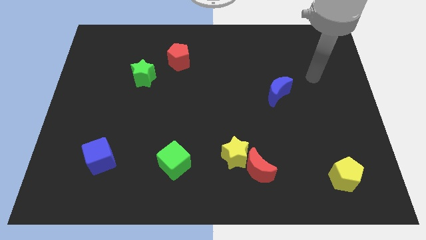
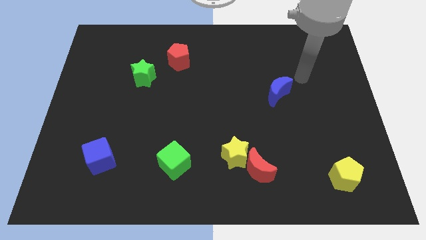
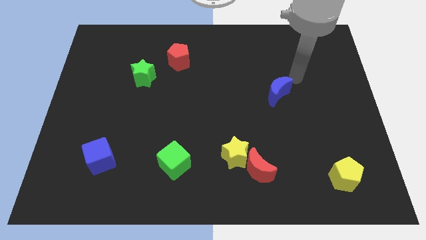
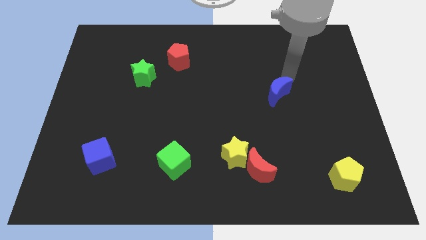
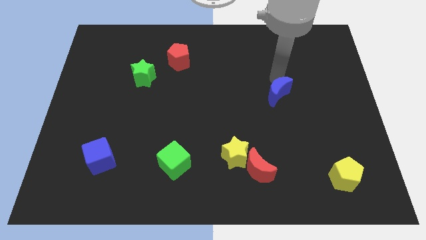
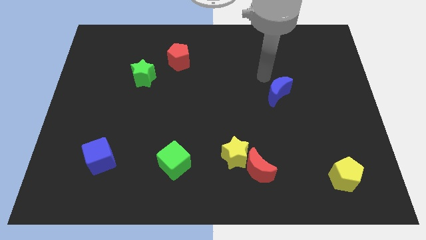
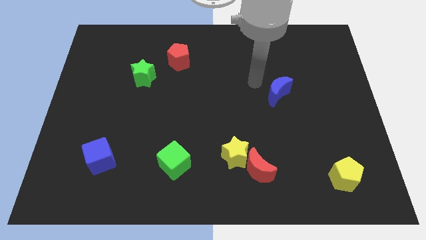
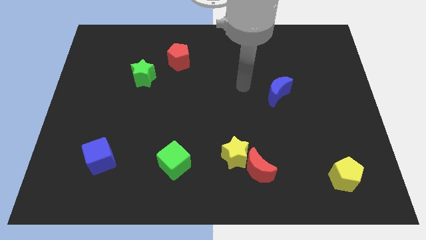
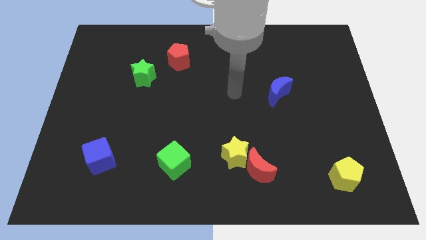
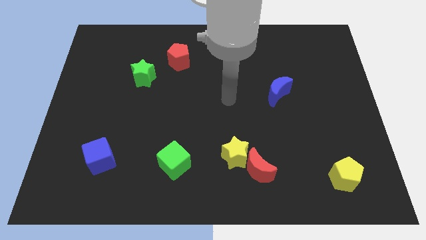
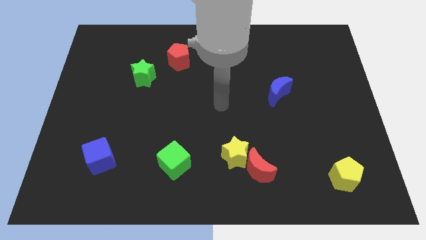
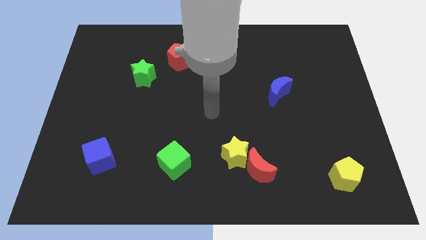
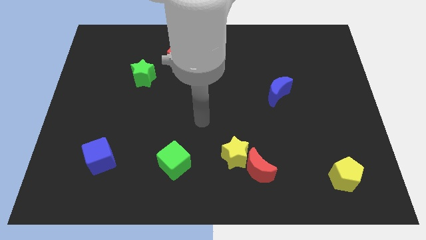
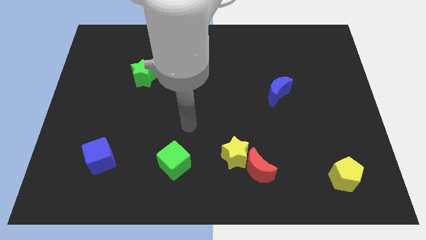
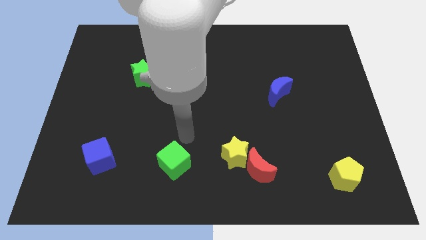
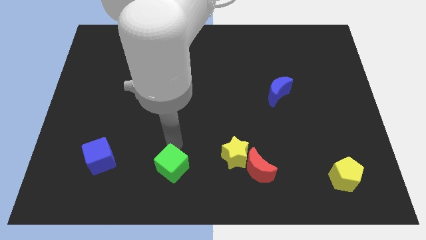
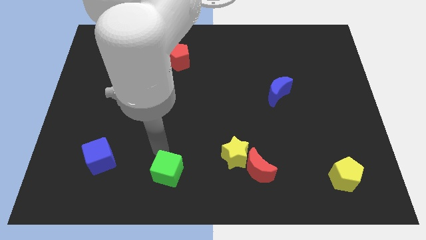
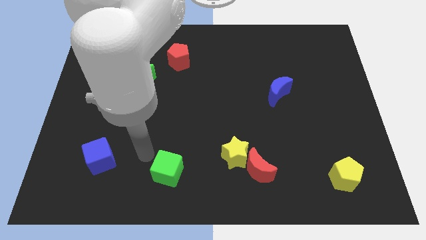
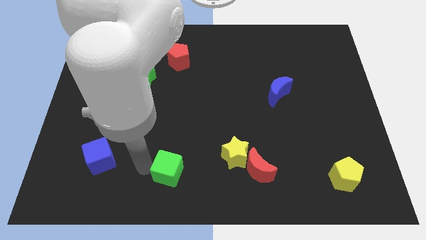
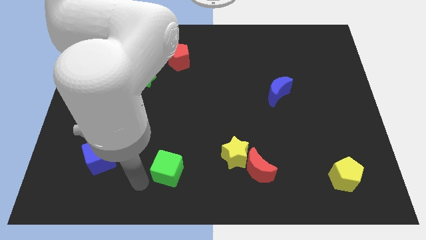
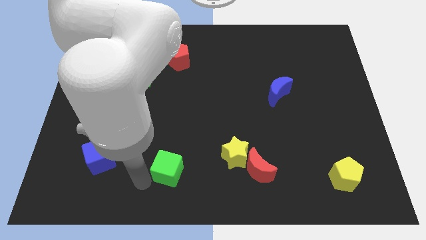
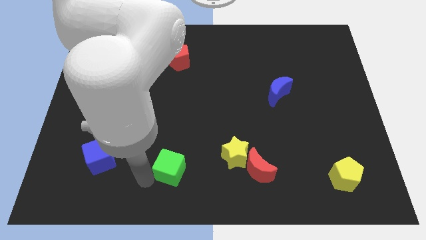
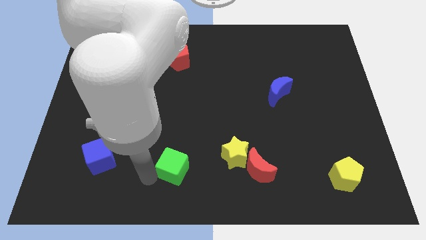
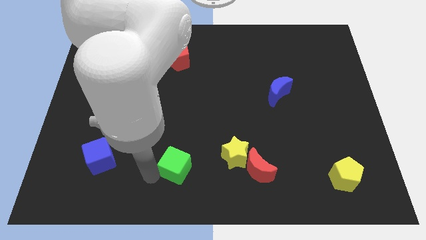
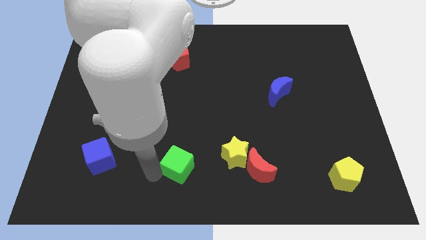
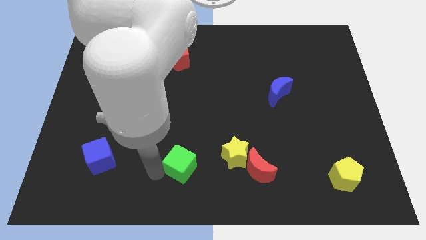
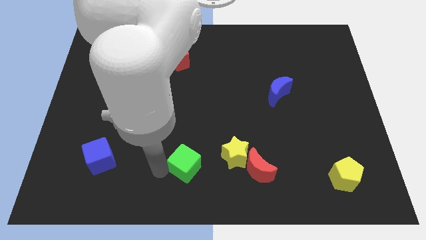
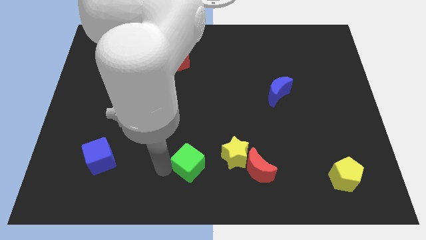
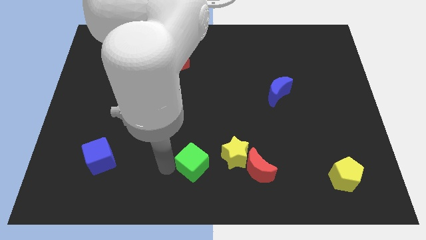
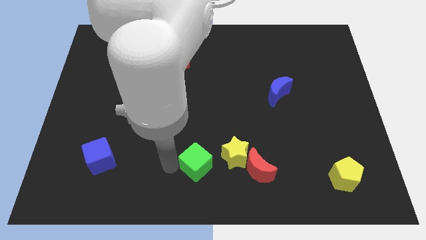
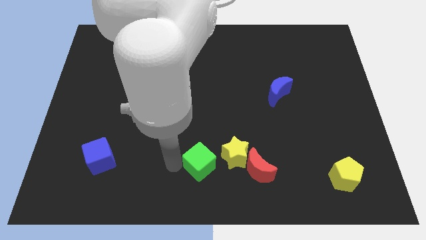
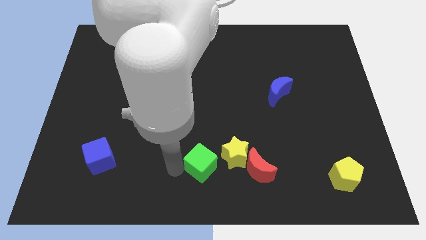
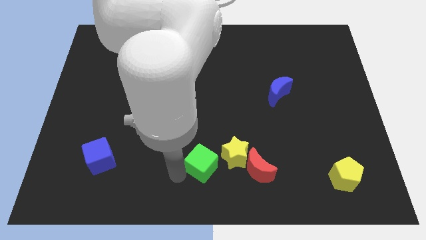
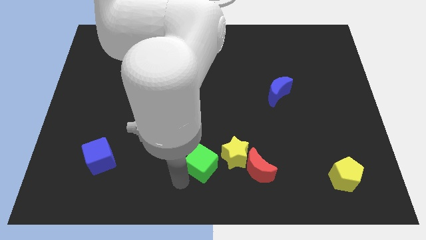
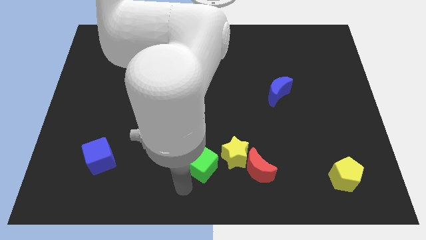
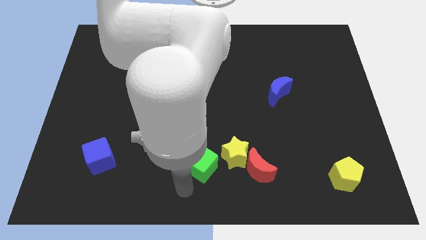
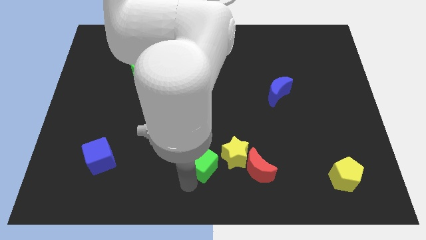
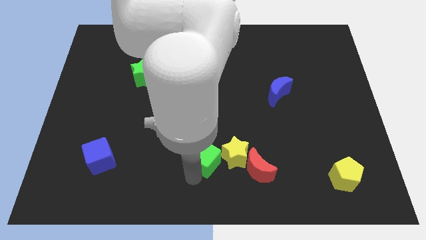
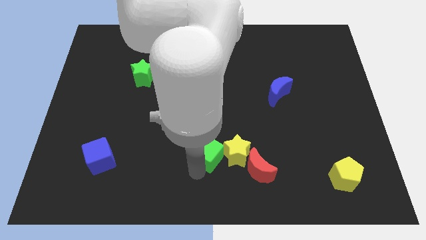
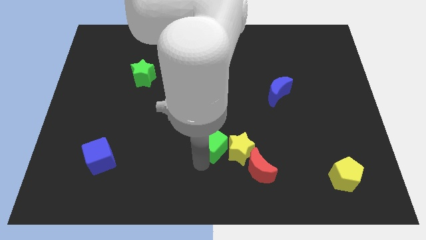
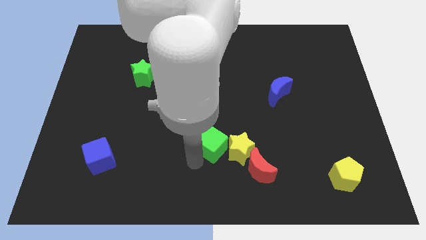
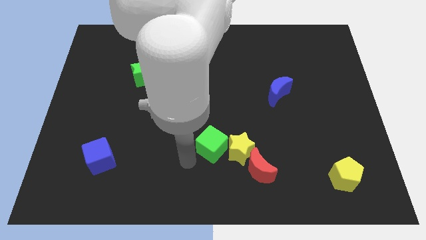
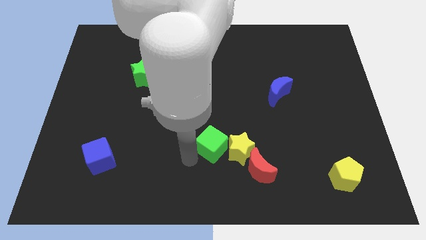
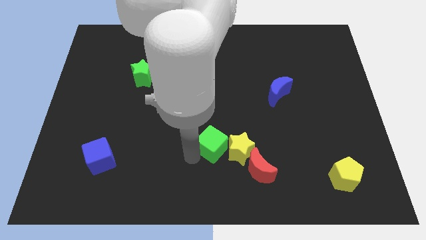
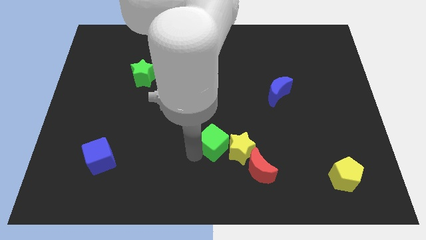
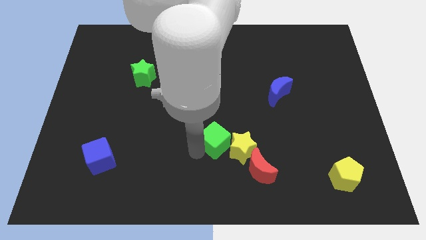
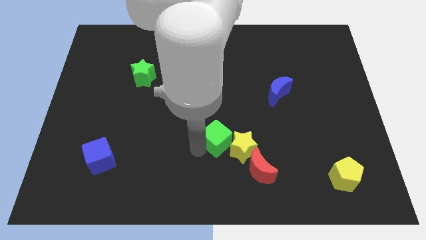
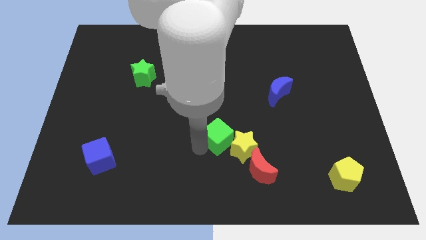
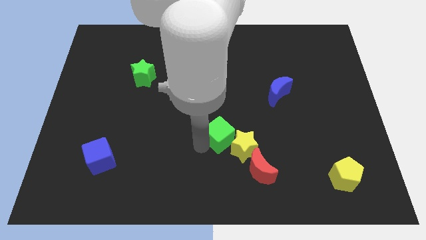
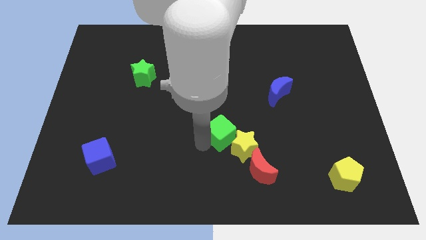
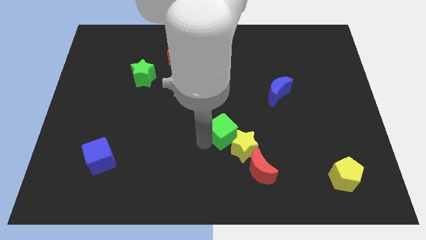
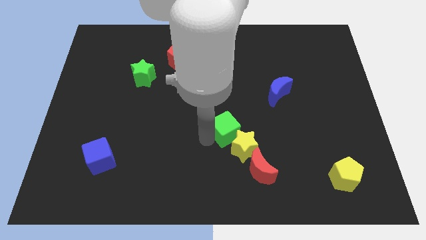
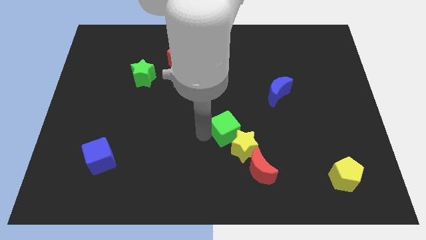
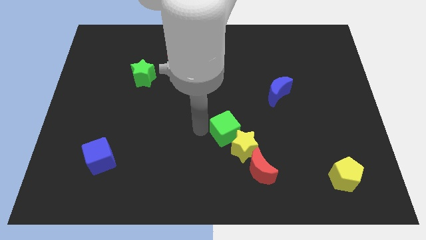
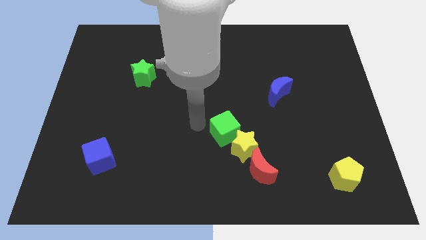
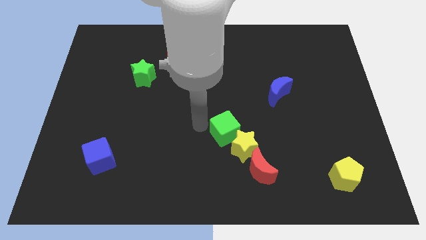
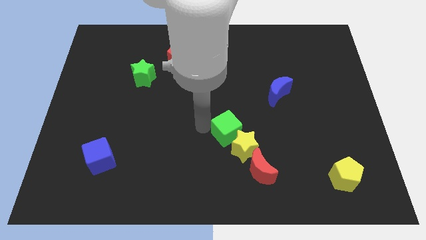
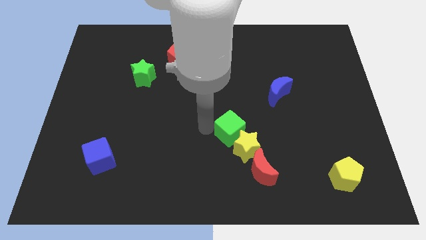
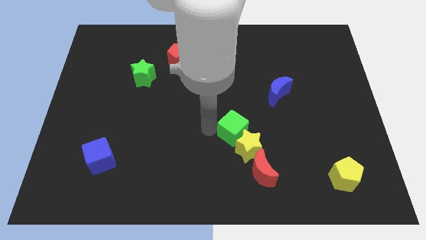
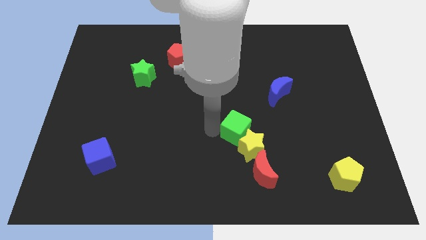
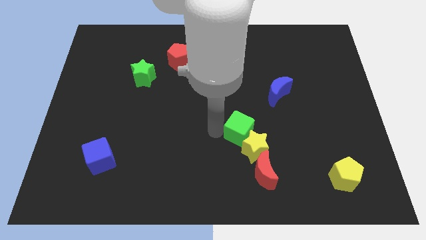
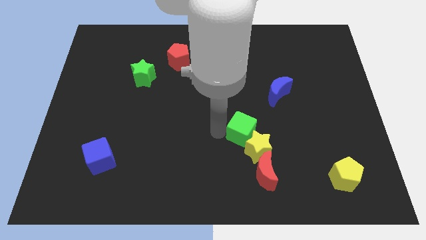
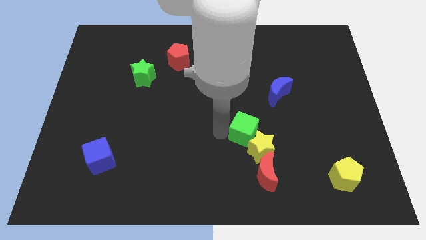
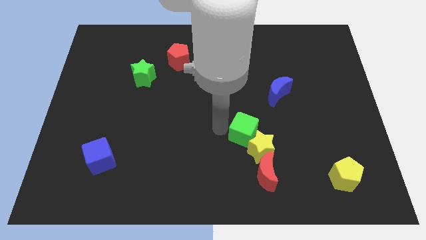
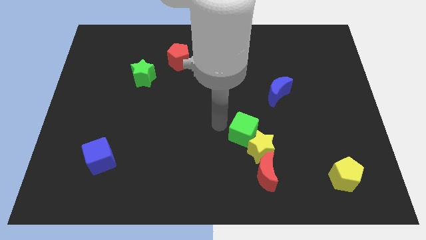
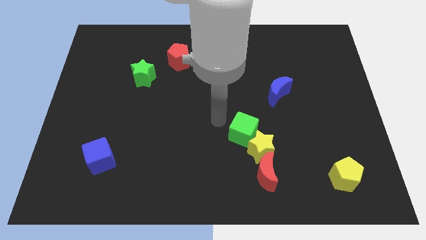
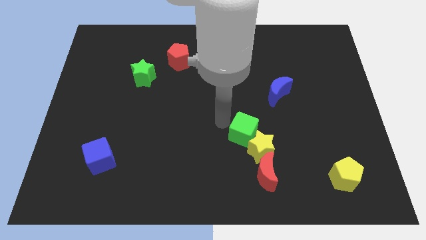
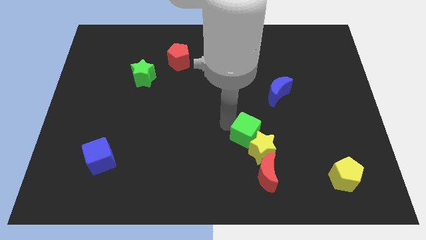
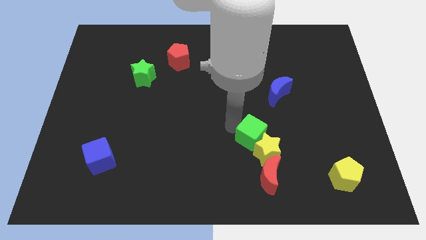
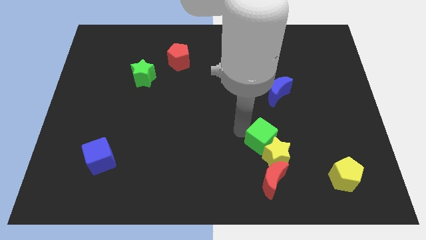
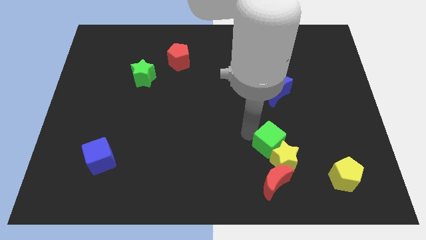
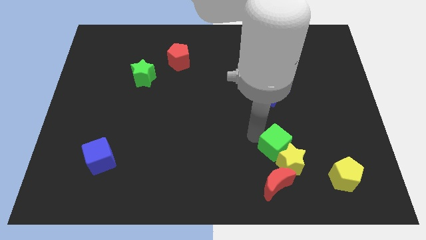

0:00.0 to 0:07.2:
slide the green cube right

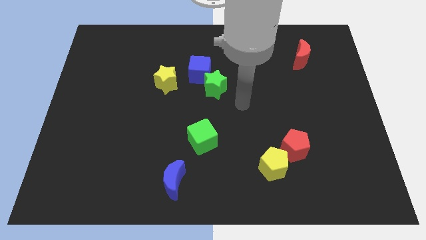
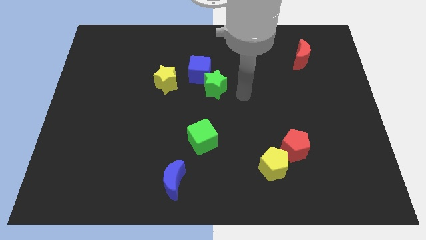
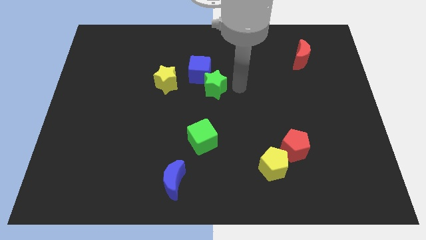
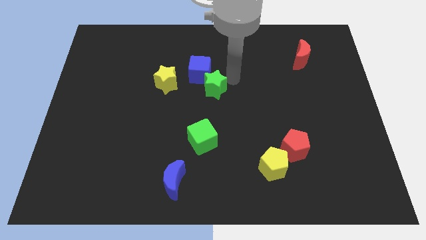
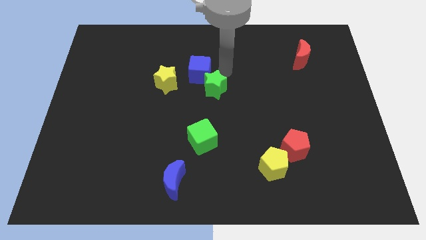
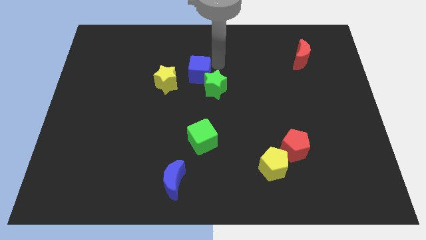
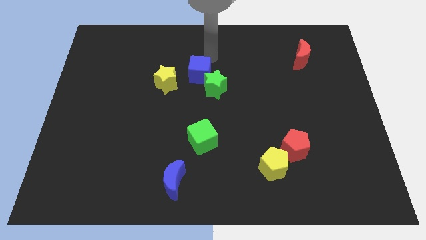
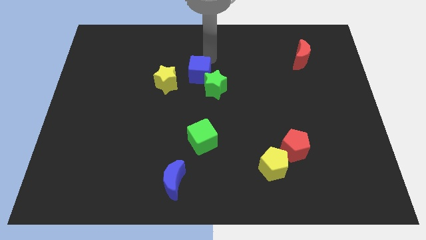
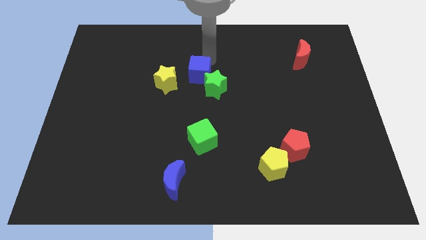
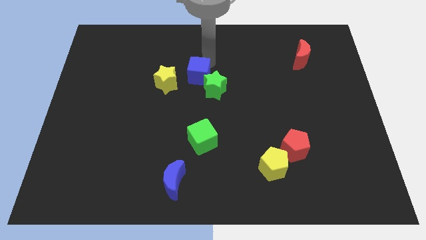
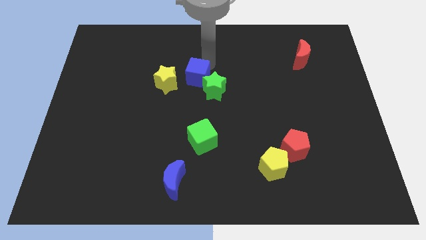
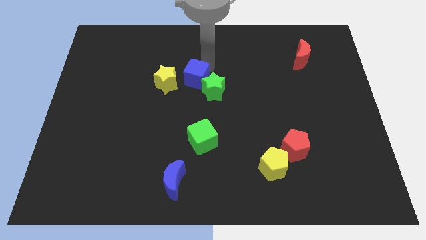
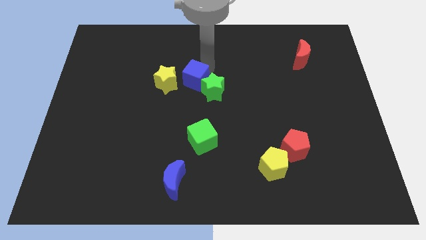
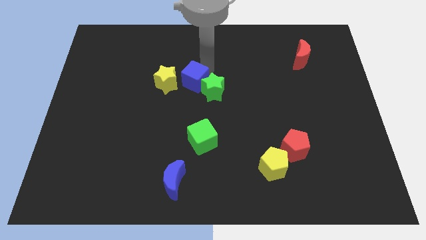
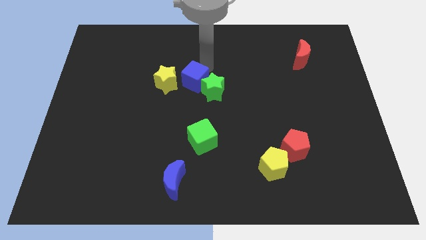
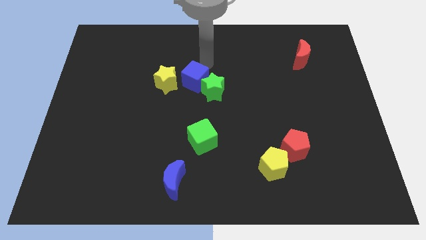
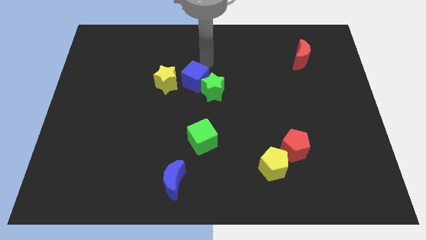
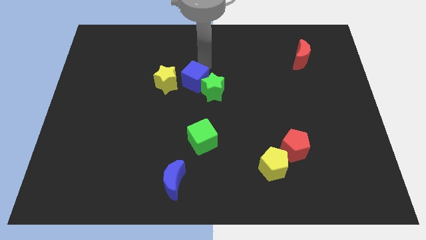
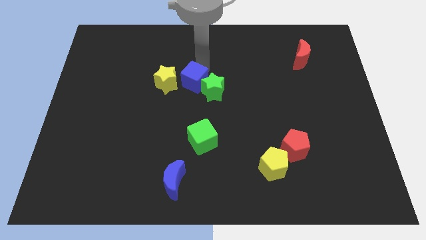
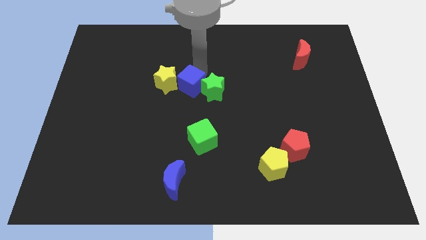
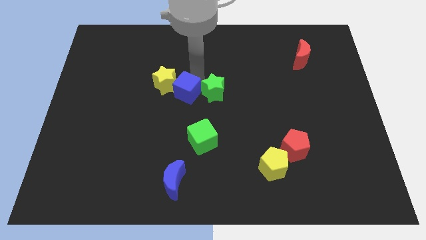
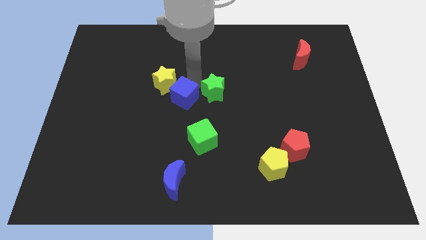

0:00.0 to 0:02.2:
slide the blue cube a bit downwards and left
